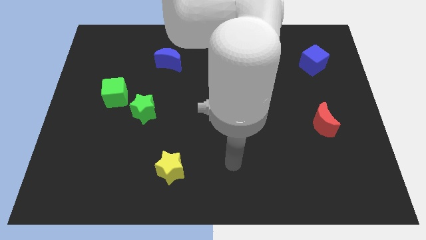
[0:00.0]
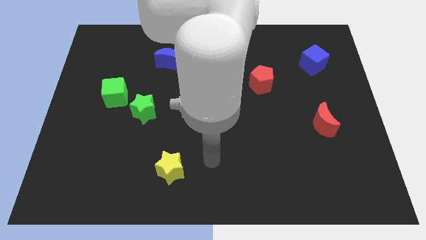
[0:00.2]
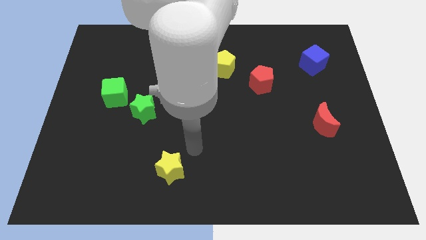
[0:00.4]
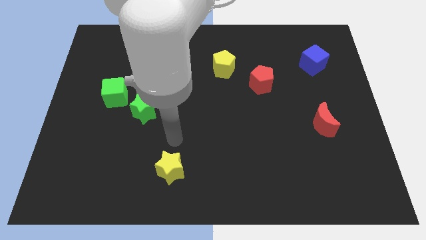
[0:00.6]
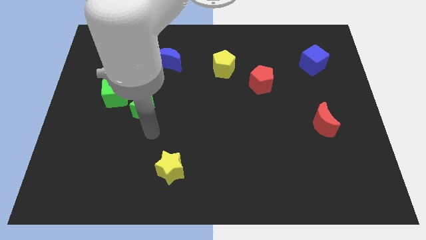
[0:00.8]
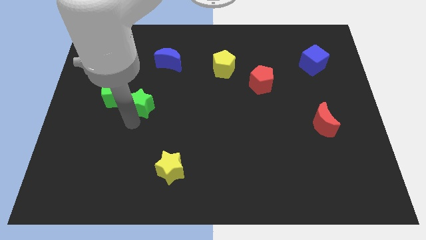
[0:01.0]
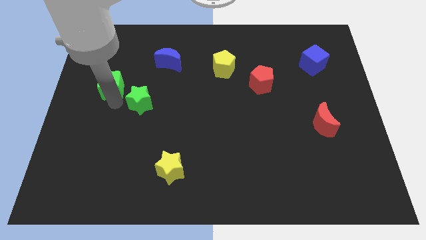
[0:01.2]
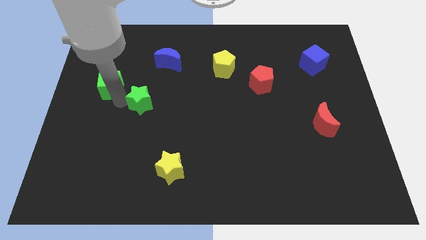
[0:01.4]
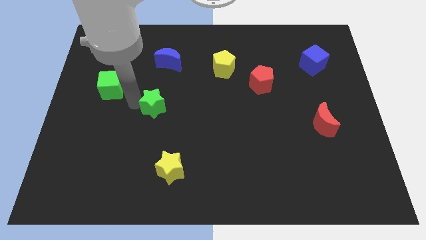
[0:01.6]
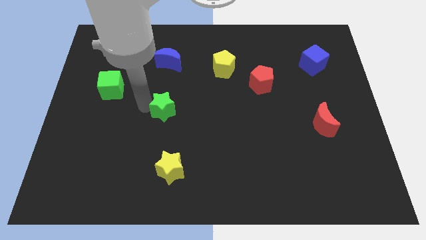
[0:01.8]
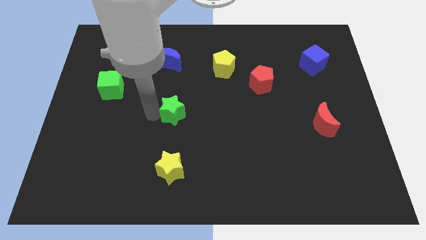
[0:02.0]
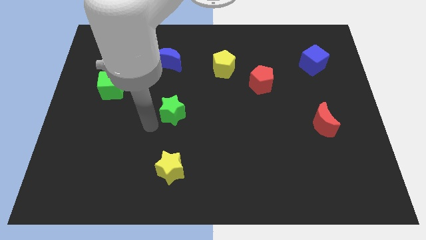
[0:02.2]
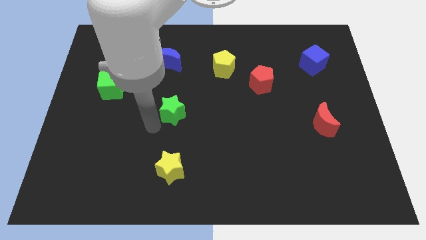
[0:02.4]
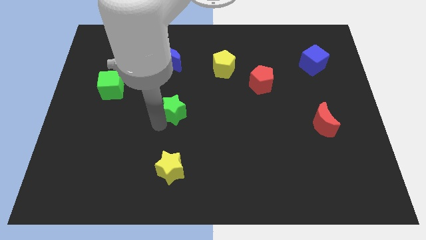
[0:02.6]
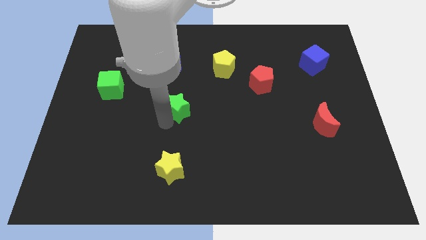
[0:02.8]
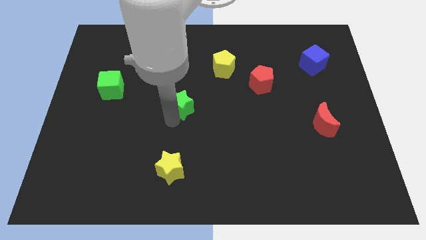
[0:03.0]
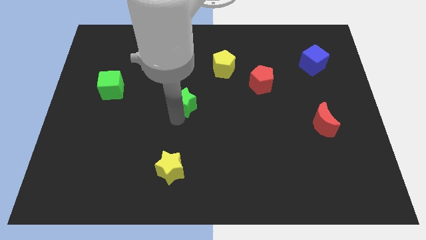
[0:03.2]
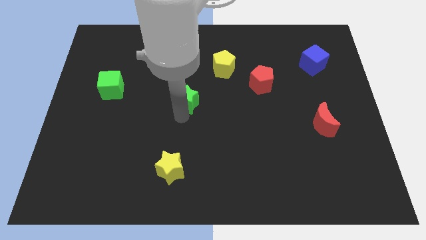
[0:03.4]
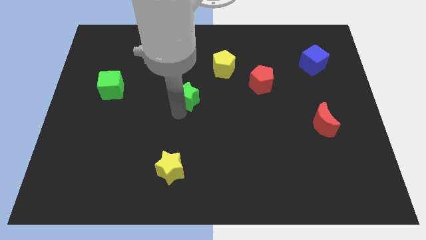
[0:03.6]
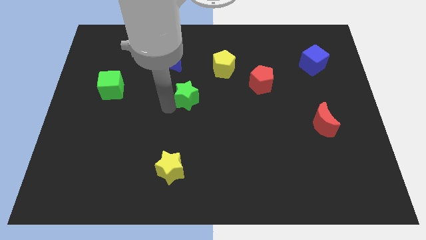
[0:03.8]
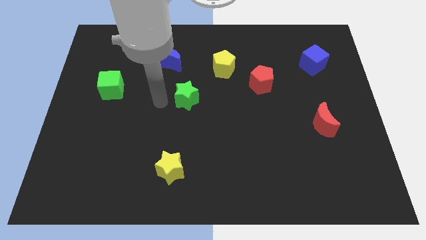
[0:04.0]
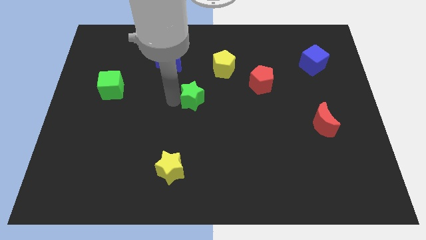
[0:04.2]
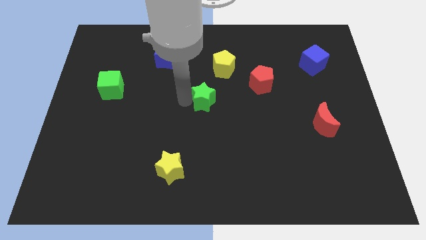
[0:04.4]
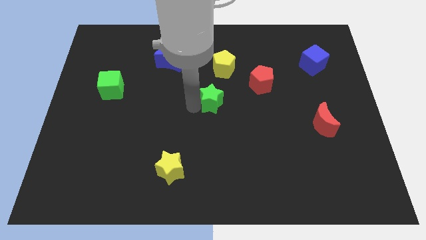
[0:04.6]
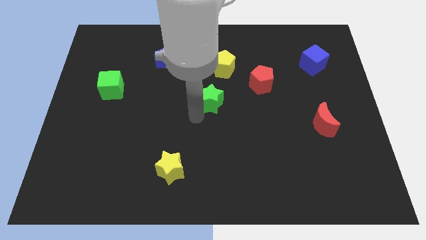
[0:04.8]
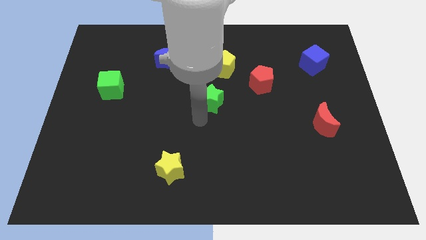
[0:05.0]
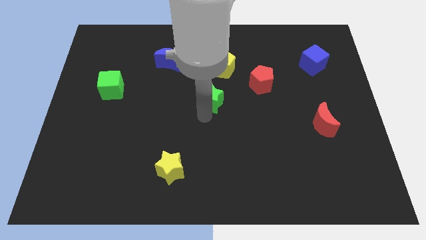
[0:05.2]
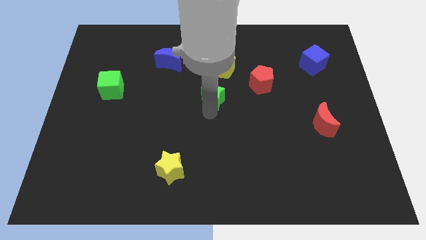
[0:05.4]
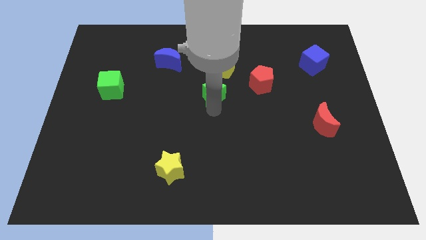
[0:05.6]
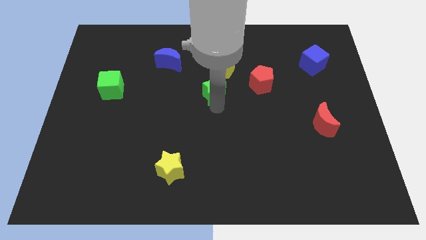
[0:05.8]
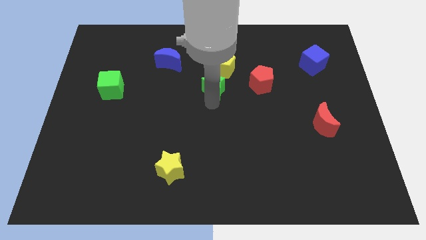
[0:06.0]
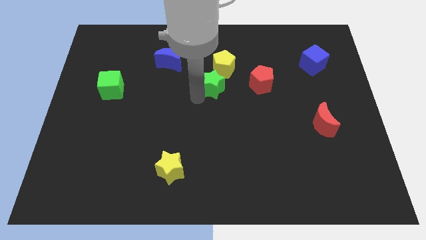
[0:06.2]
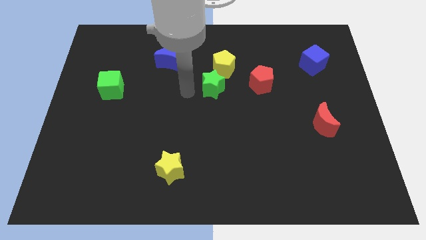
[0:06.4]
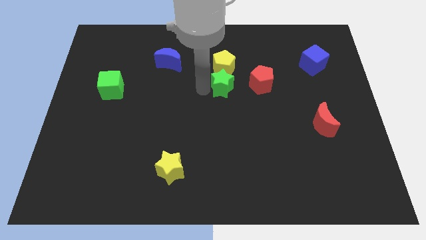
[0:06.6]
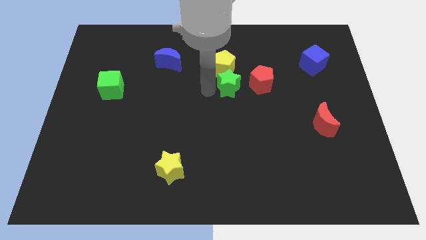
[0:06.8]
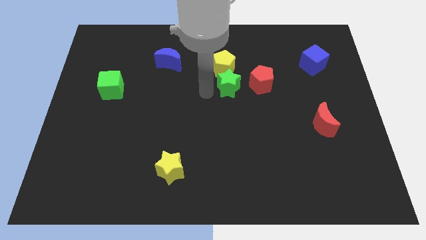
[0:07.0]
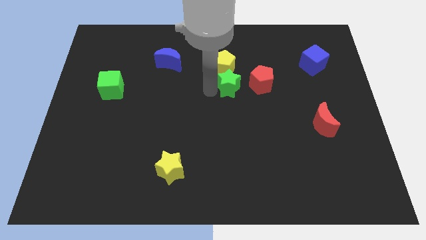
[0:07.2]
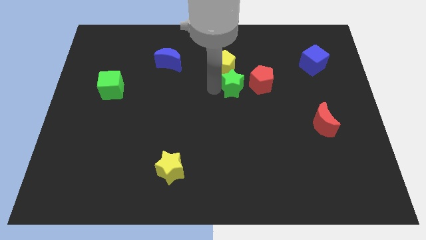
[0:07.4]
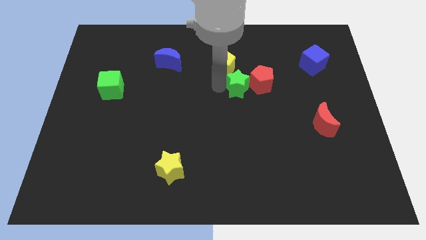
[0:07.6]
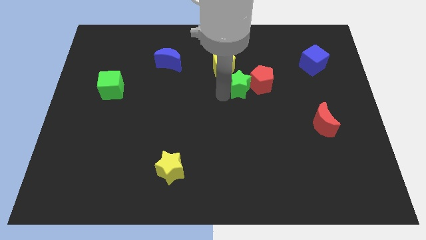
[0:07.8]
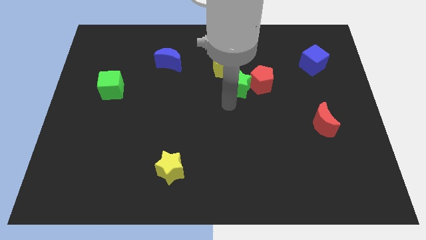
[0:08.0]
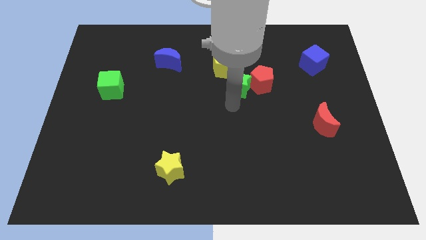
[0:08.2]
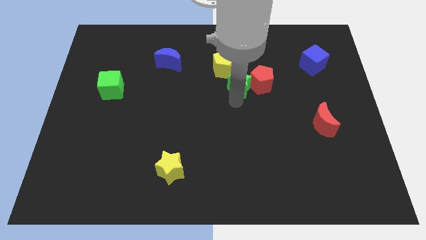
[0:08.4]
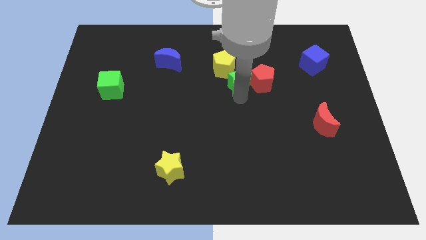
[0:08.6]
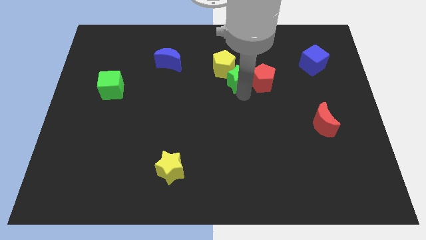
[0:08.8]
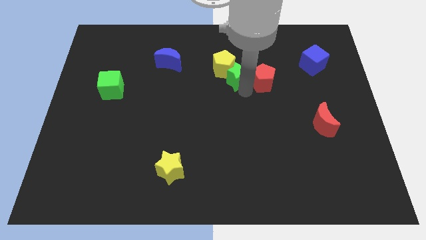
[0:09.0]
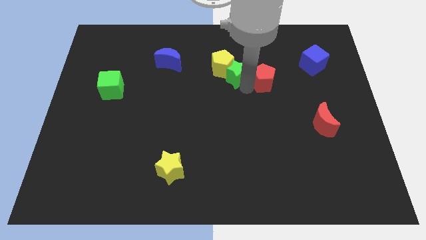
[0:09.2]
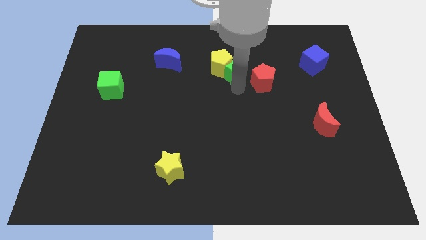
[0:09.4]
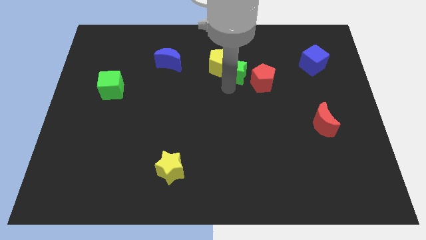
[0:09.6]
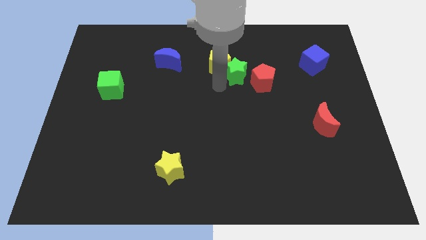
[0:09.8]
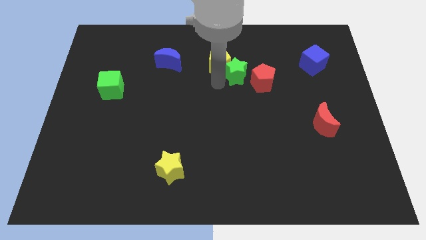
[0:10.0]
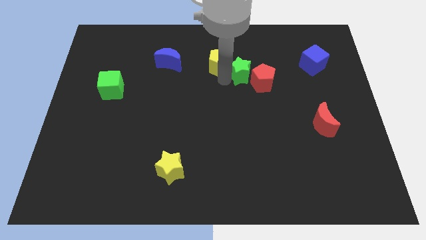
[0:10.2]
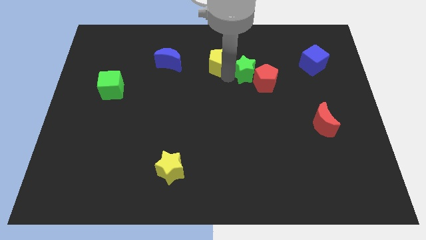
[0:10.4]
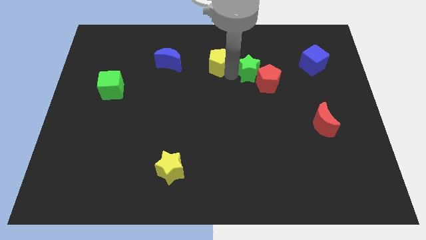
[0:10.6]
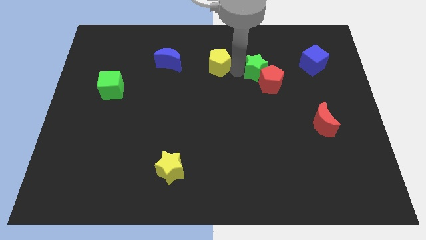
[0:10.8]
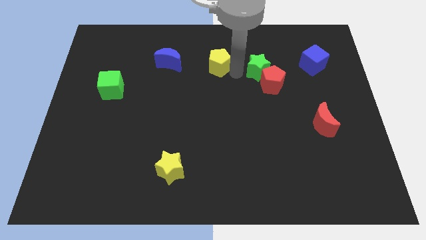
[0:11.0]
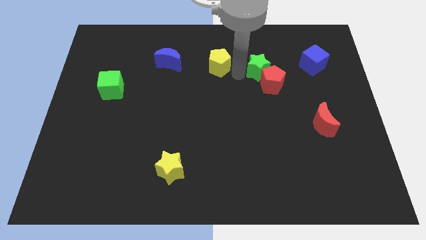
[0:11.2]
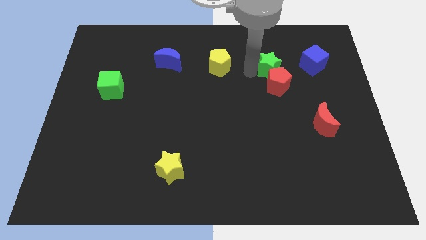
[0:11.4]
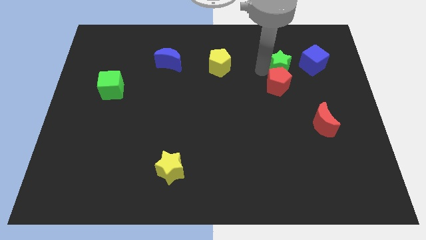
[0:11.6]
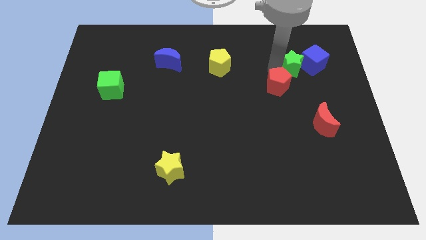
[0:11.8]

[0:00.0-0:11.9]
put the green star close to the blue cube

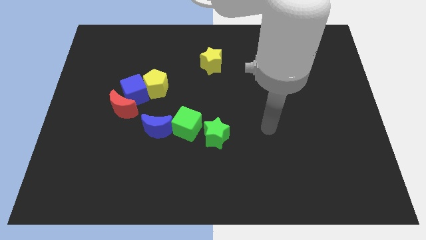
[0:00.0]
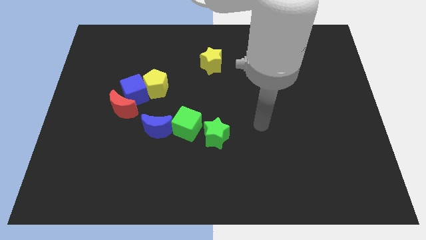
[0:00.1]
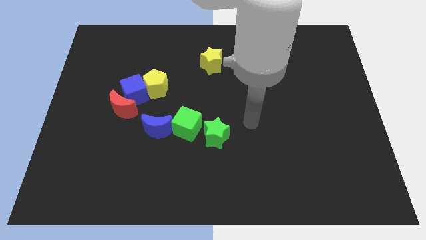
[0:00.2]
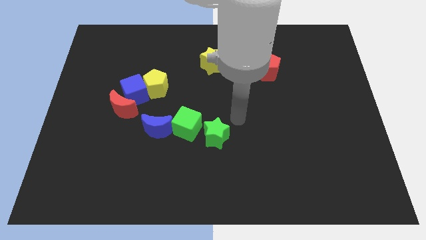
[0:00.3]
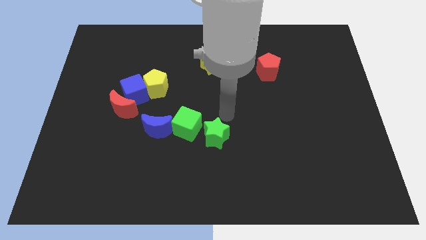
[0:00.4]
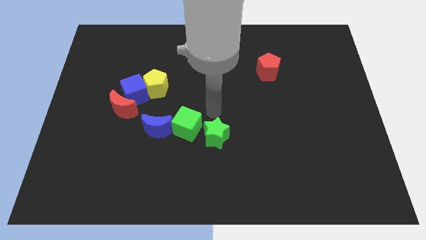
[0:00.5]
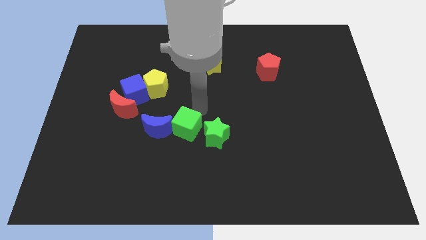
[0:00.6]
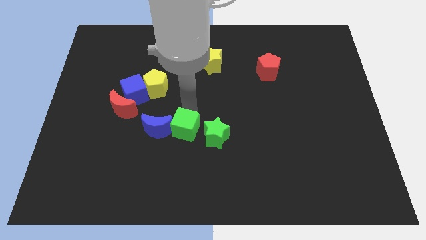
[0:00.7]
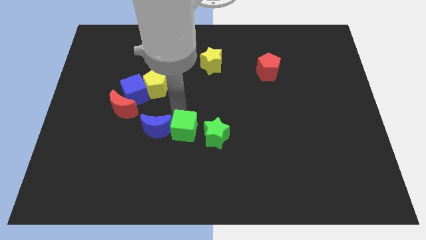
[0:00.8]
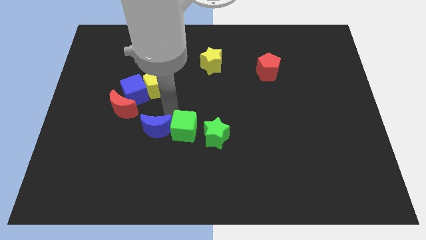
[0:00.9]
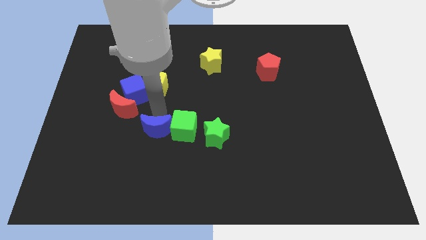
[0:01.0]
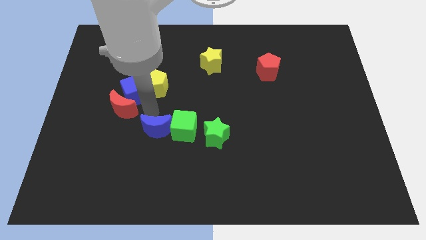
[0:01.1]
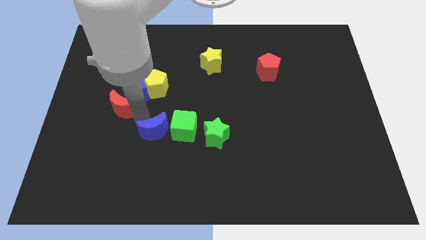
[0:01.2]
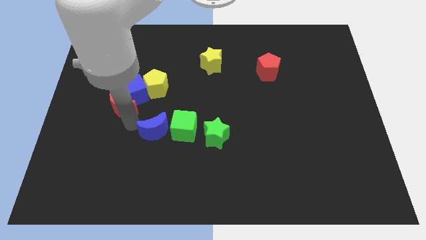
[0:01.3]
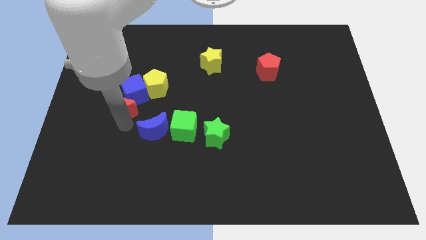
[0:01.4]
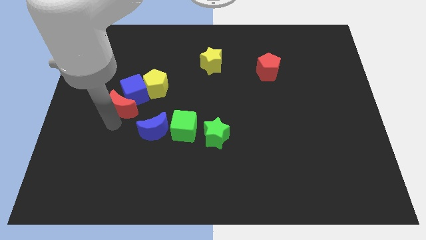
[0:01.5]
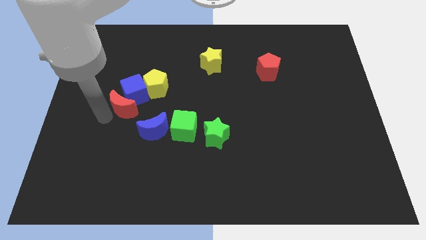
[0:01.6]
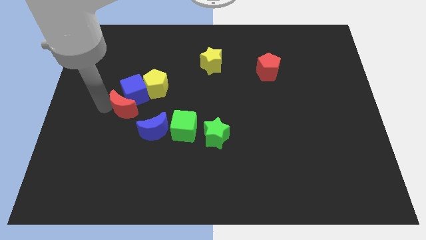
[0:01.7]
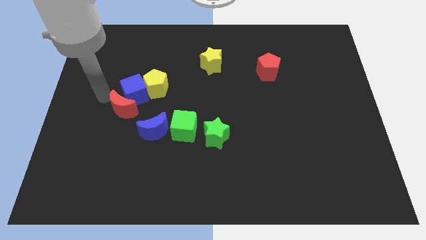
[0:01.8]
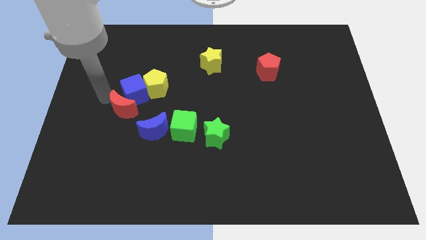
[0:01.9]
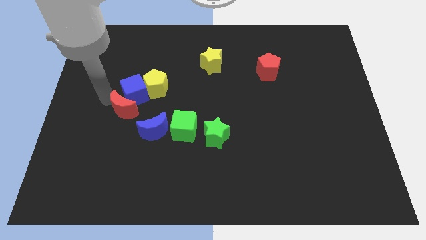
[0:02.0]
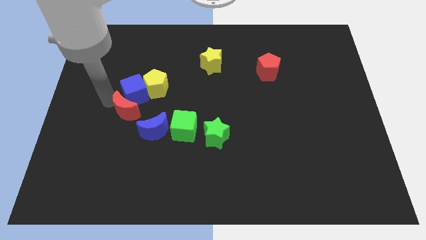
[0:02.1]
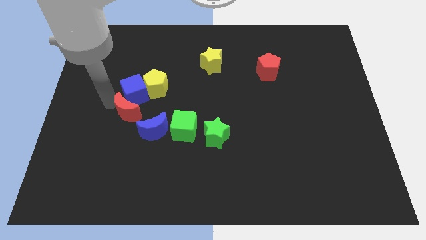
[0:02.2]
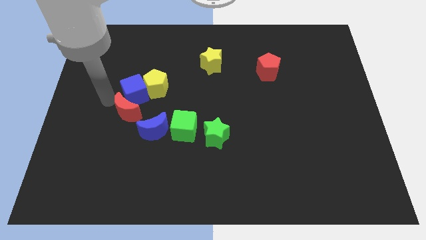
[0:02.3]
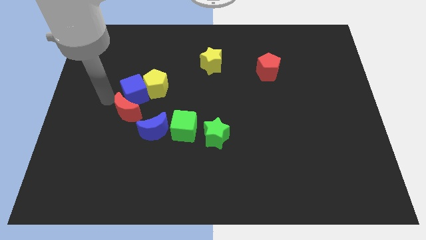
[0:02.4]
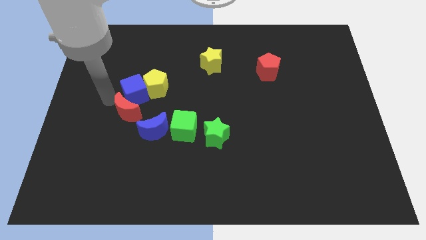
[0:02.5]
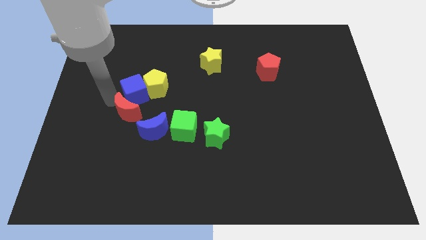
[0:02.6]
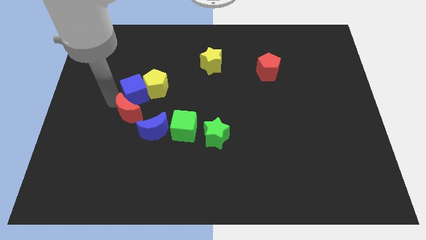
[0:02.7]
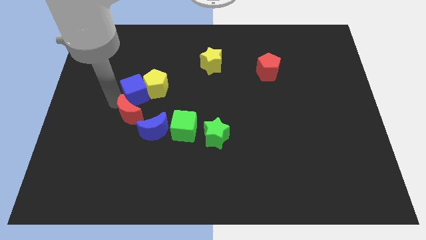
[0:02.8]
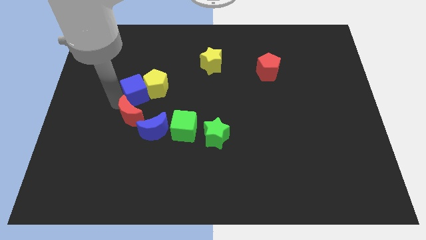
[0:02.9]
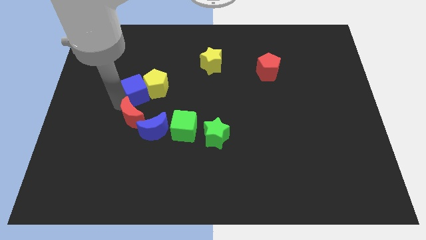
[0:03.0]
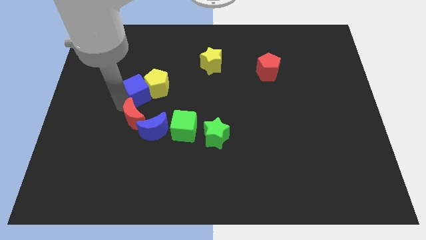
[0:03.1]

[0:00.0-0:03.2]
move the red moon to the blue moon
